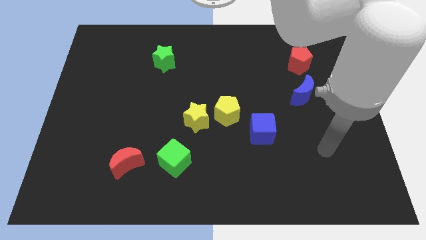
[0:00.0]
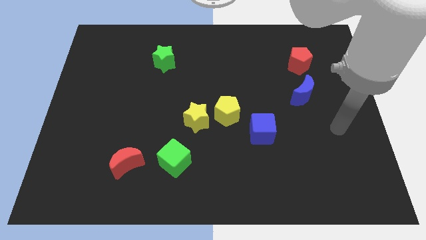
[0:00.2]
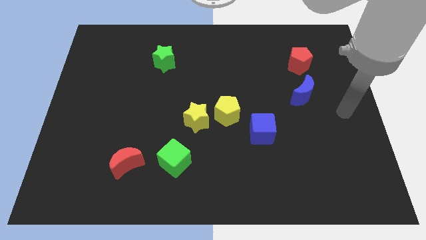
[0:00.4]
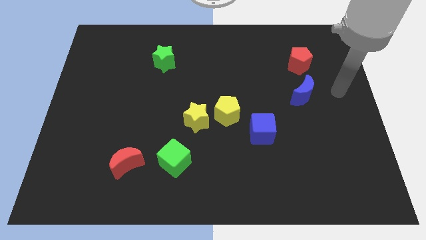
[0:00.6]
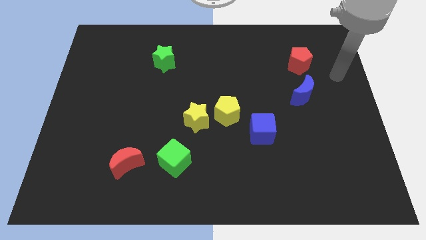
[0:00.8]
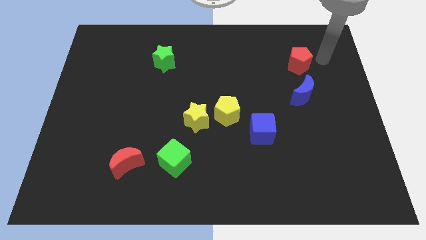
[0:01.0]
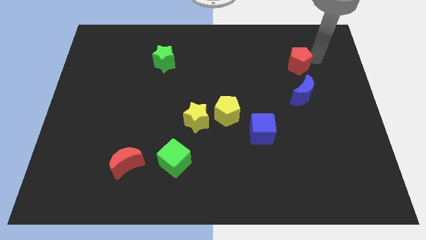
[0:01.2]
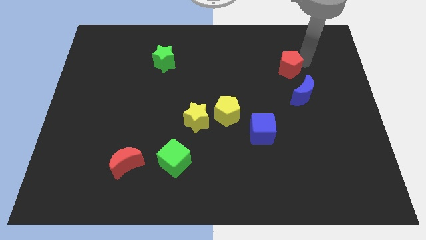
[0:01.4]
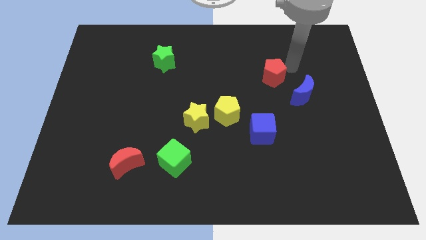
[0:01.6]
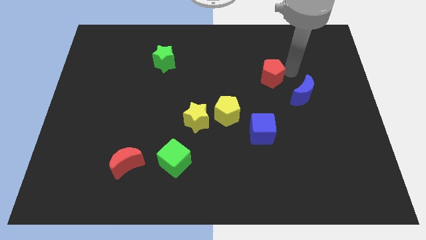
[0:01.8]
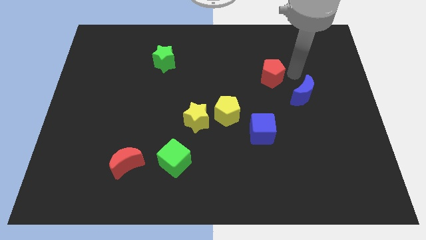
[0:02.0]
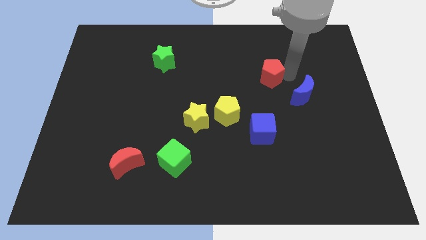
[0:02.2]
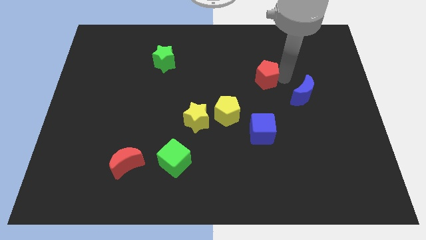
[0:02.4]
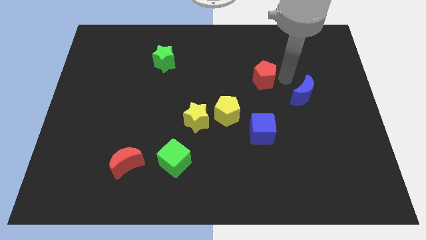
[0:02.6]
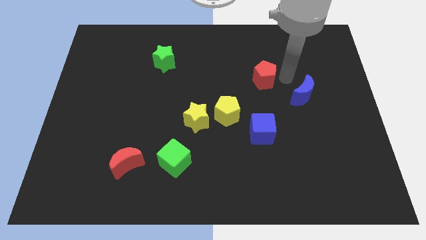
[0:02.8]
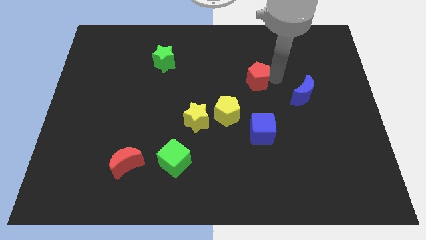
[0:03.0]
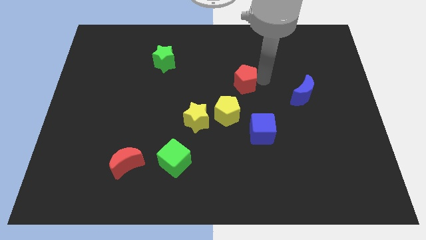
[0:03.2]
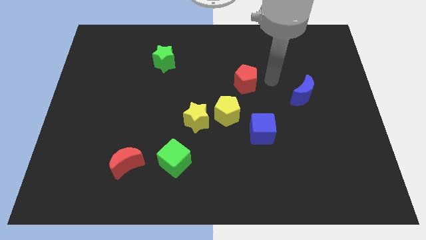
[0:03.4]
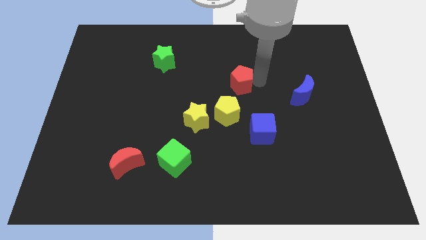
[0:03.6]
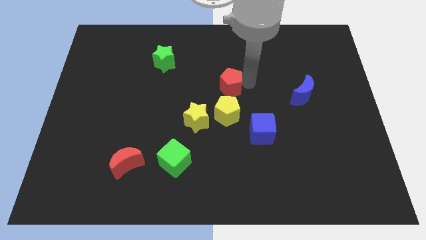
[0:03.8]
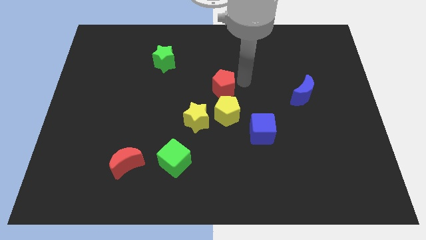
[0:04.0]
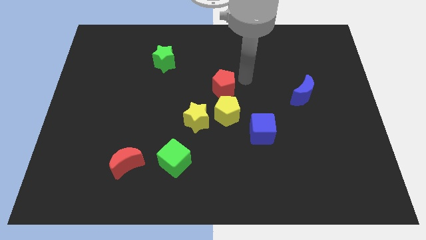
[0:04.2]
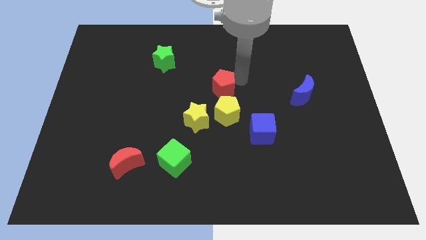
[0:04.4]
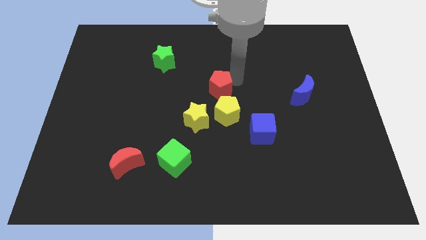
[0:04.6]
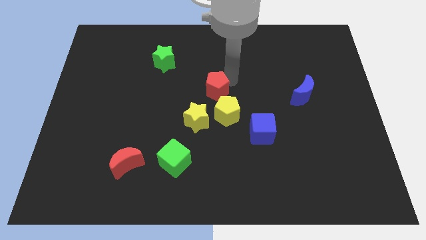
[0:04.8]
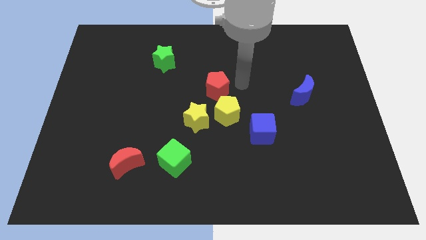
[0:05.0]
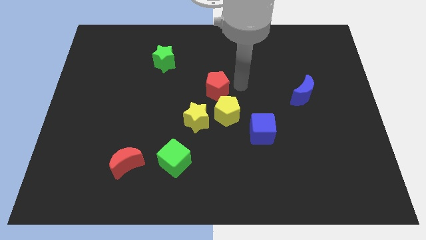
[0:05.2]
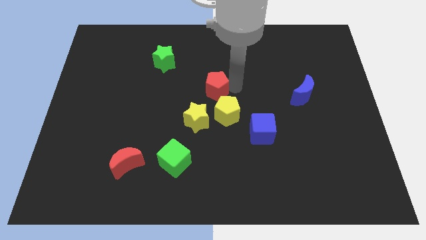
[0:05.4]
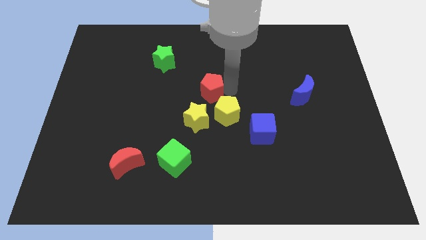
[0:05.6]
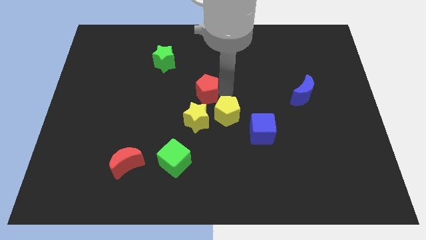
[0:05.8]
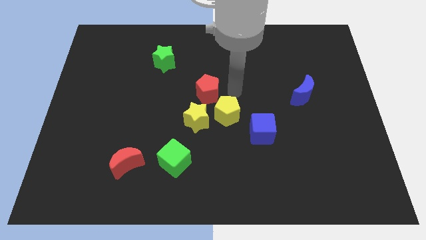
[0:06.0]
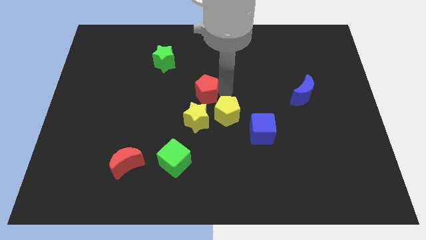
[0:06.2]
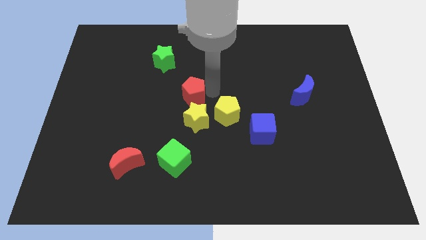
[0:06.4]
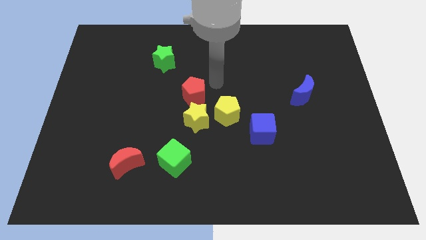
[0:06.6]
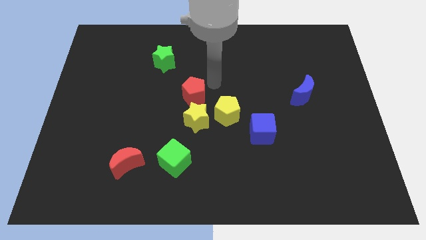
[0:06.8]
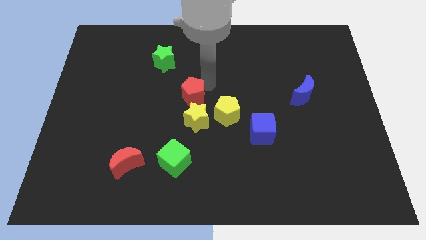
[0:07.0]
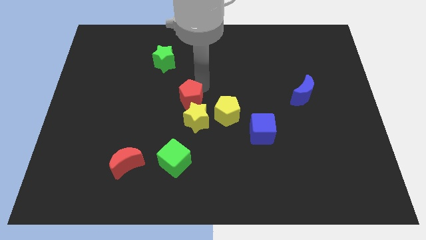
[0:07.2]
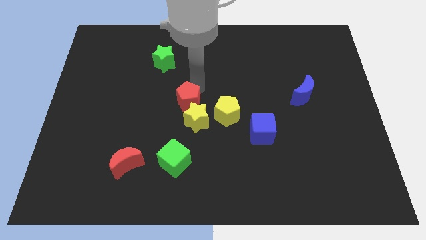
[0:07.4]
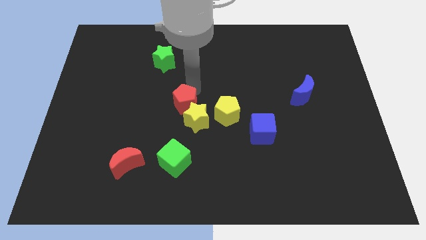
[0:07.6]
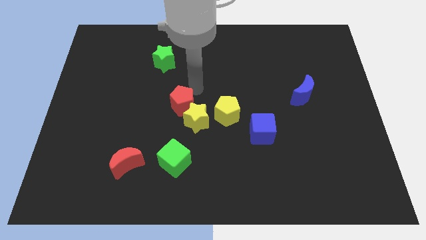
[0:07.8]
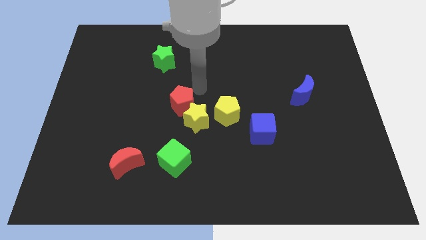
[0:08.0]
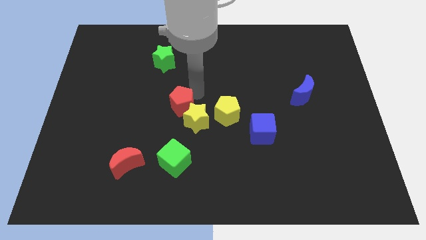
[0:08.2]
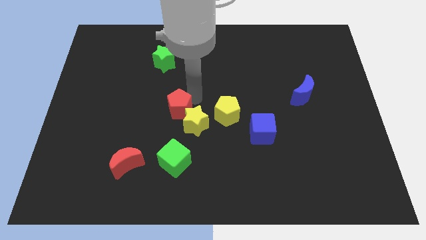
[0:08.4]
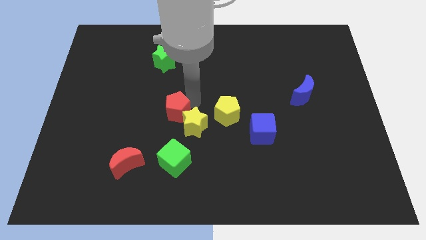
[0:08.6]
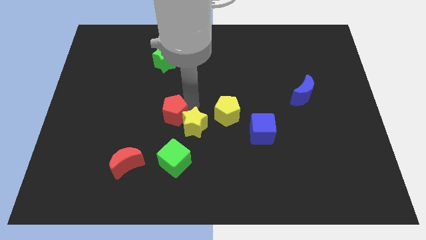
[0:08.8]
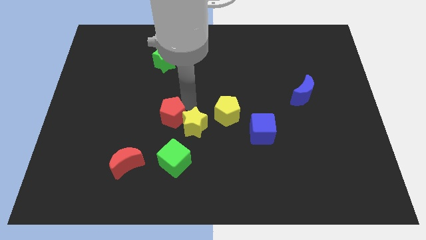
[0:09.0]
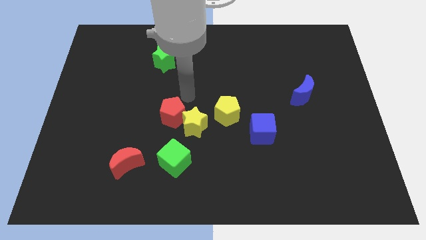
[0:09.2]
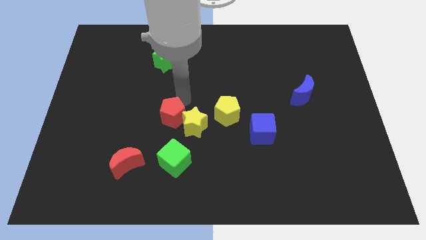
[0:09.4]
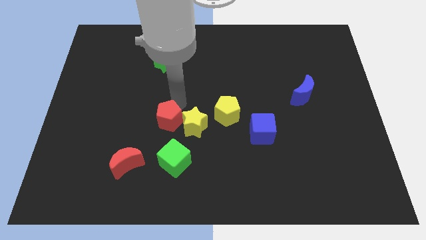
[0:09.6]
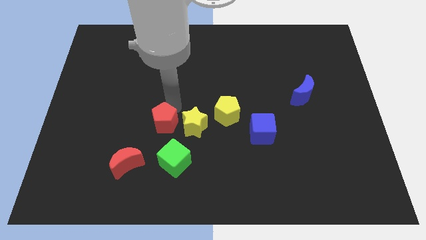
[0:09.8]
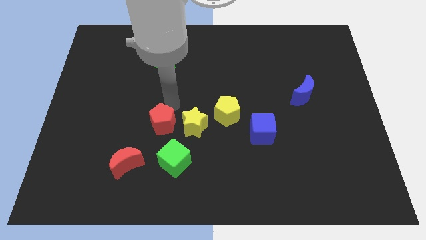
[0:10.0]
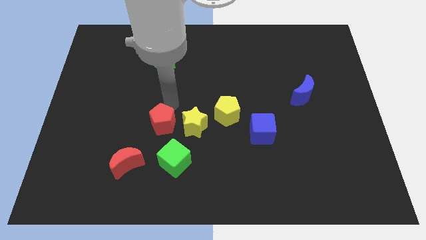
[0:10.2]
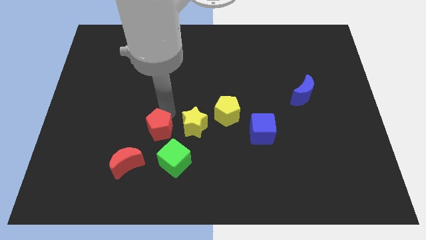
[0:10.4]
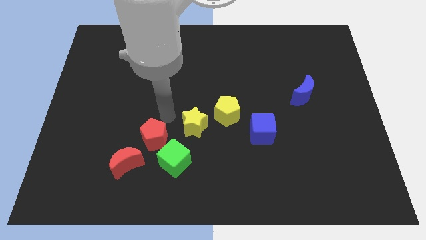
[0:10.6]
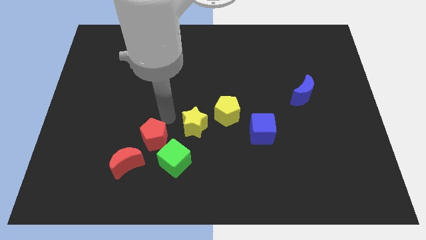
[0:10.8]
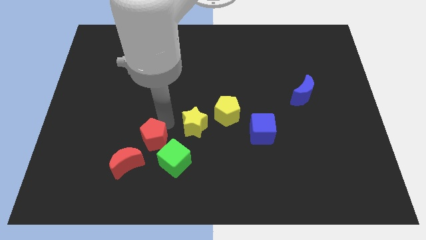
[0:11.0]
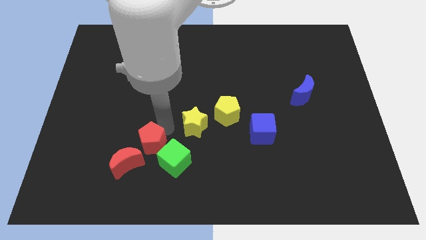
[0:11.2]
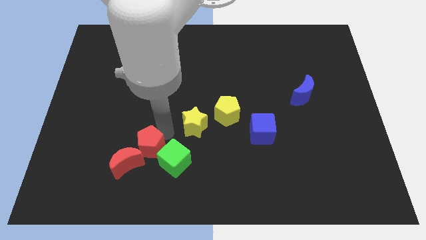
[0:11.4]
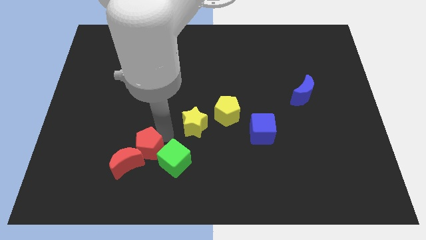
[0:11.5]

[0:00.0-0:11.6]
put the red pentagon towards the red moon

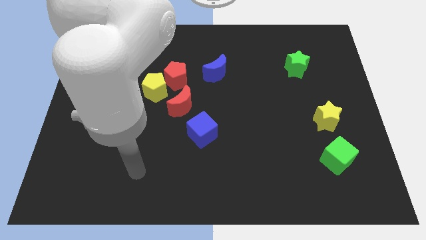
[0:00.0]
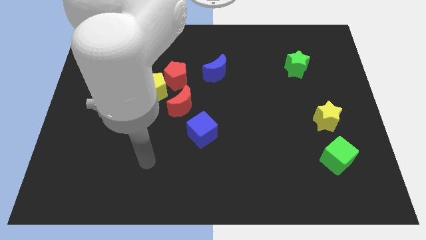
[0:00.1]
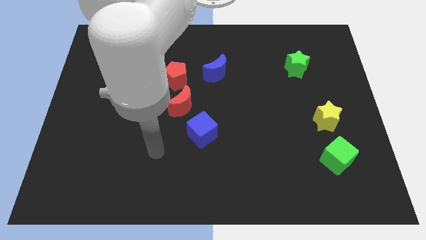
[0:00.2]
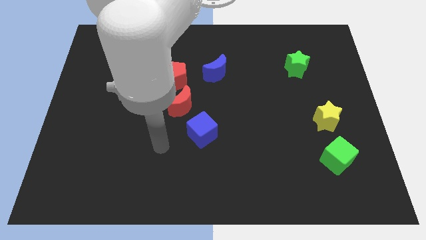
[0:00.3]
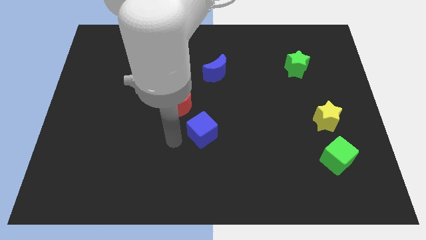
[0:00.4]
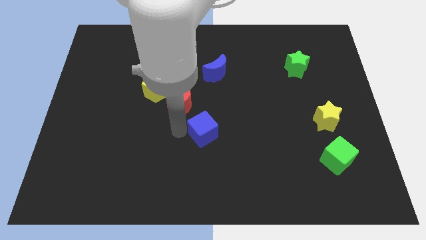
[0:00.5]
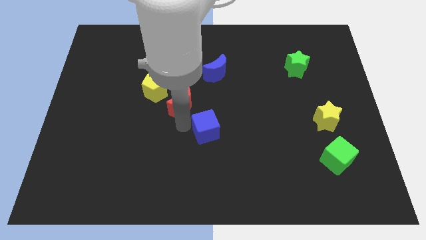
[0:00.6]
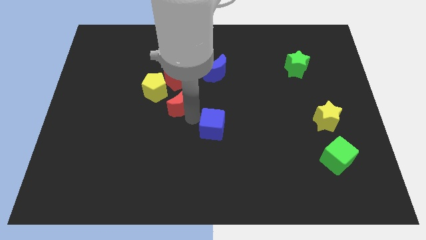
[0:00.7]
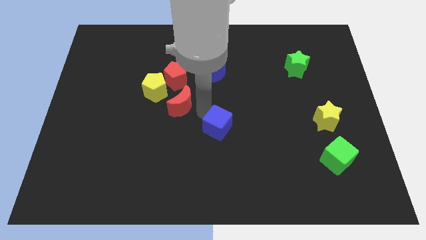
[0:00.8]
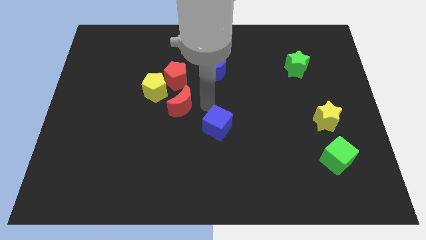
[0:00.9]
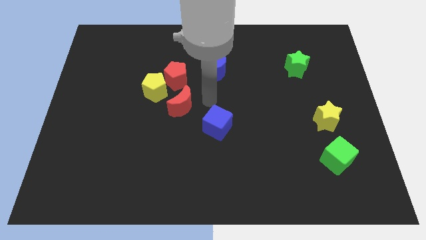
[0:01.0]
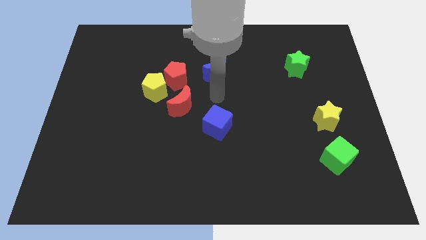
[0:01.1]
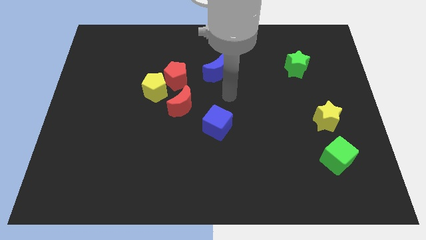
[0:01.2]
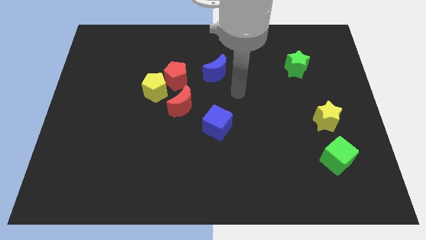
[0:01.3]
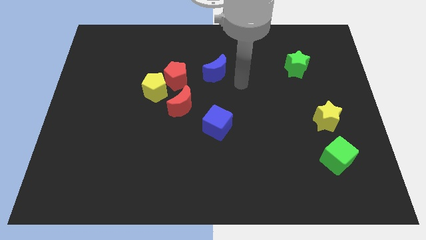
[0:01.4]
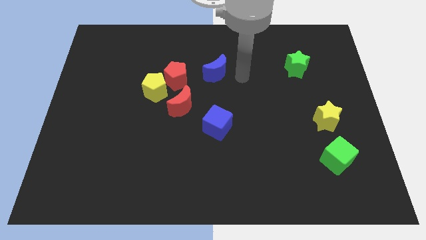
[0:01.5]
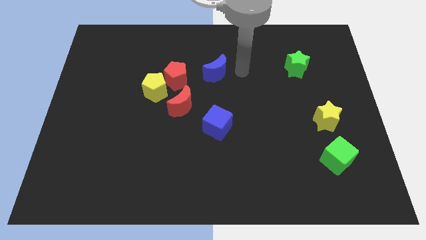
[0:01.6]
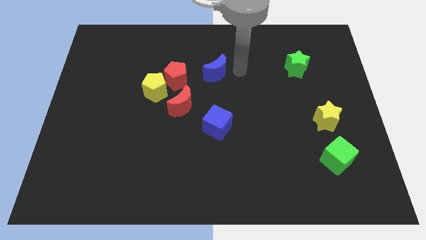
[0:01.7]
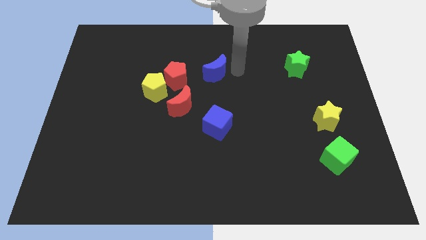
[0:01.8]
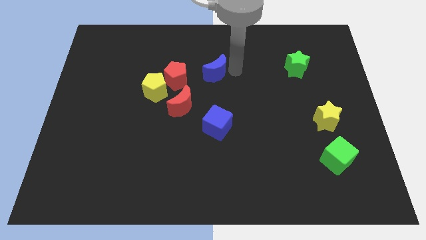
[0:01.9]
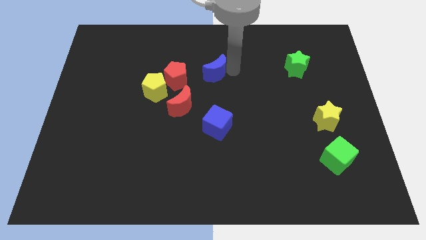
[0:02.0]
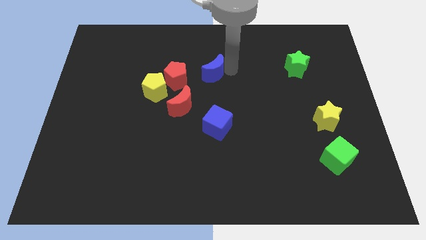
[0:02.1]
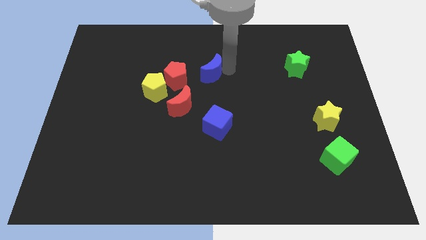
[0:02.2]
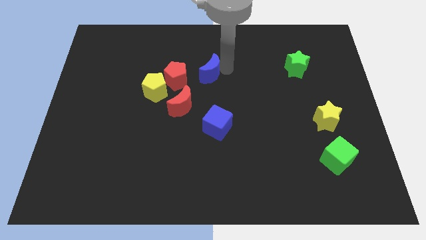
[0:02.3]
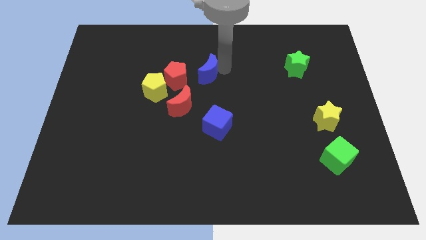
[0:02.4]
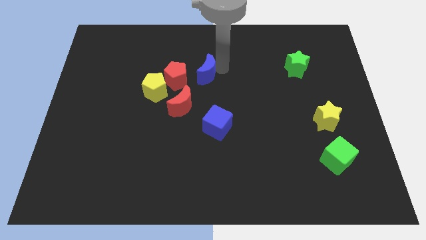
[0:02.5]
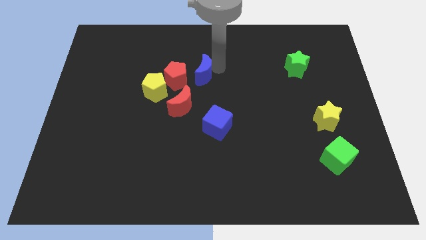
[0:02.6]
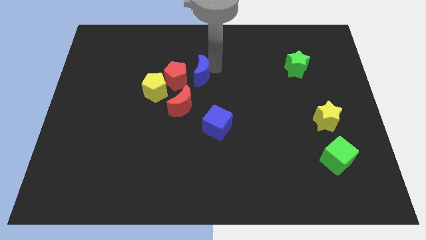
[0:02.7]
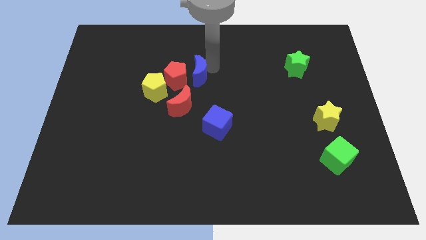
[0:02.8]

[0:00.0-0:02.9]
slide the blue moon to the red pentagon
